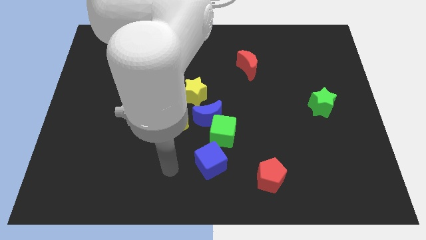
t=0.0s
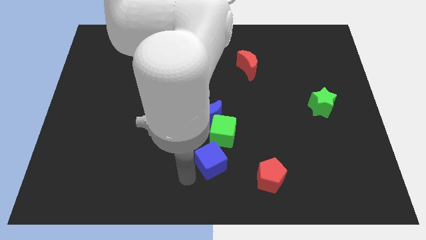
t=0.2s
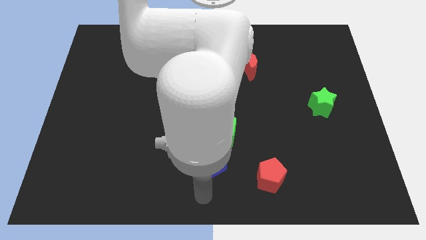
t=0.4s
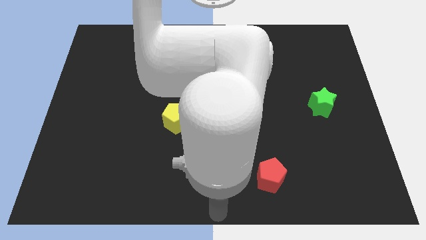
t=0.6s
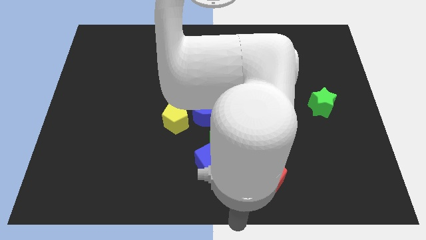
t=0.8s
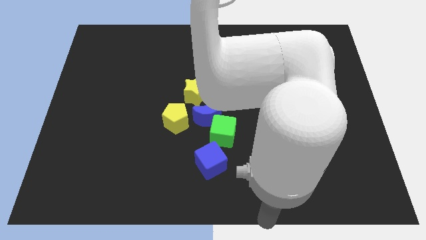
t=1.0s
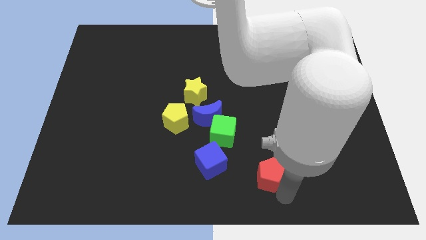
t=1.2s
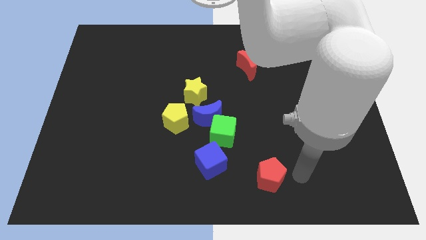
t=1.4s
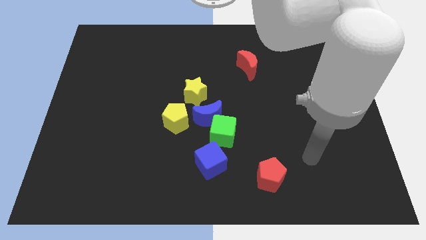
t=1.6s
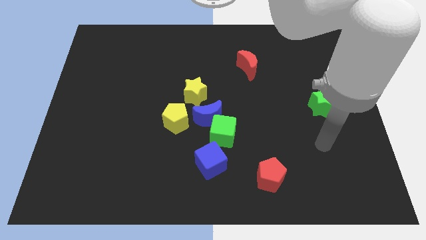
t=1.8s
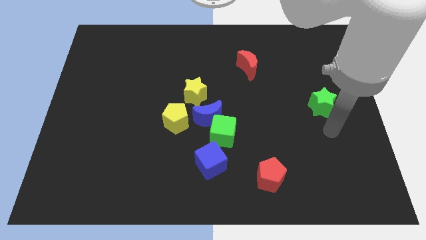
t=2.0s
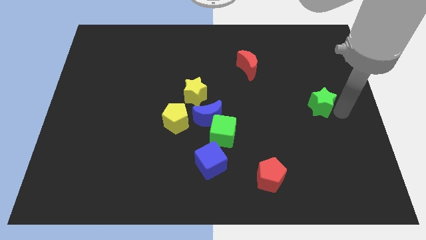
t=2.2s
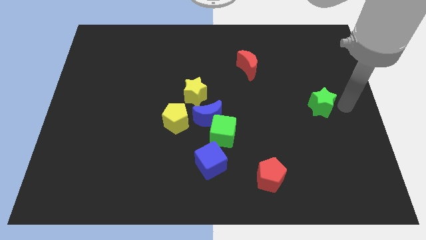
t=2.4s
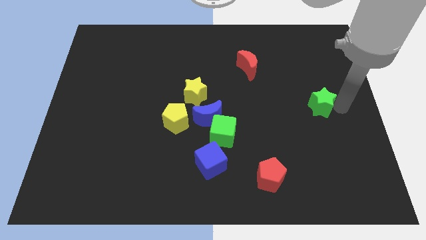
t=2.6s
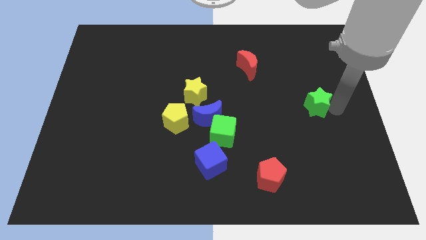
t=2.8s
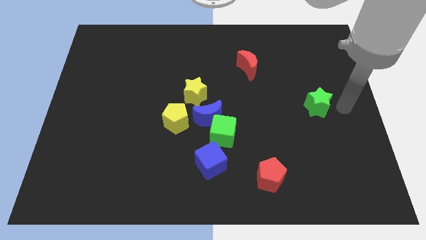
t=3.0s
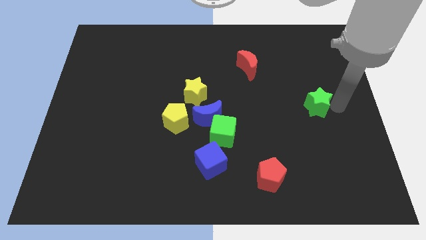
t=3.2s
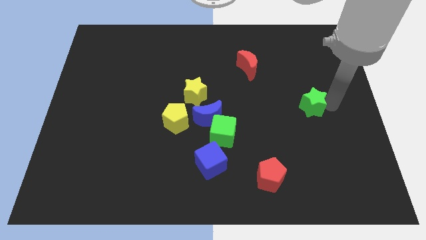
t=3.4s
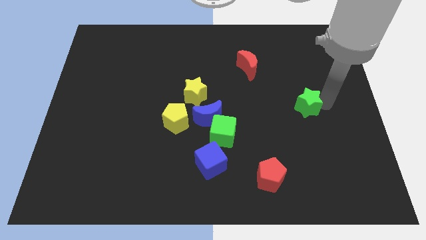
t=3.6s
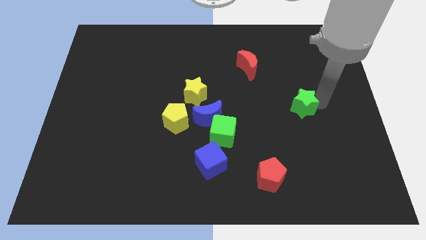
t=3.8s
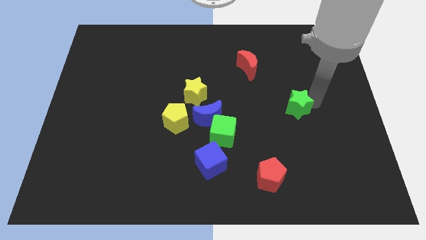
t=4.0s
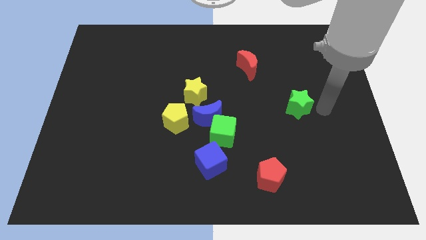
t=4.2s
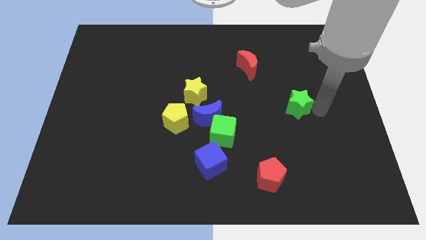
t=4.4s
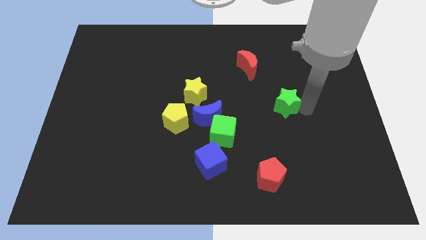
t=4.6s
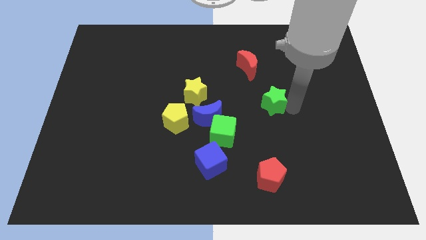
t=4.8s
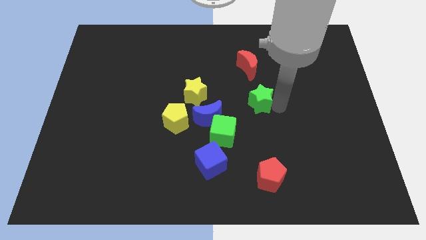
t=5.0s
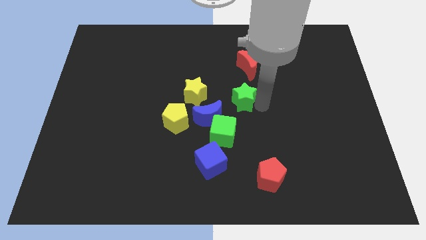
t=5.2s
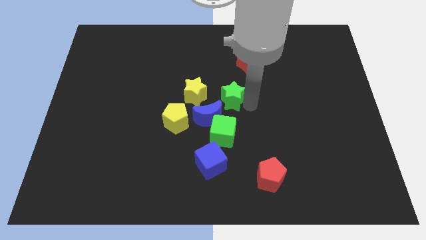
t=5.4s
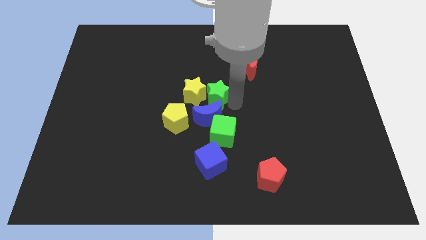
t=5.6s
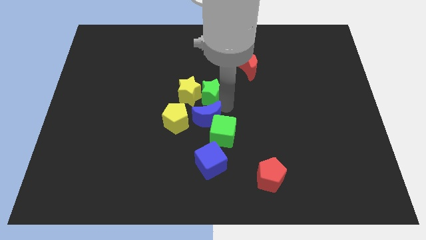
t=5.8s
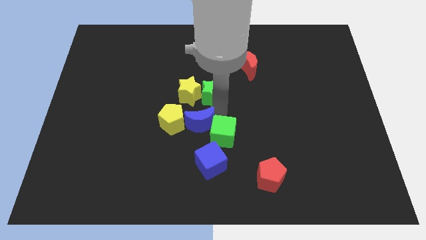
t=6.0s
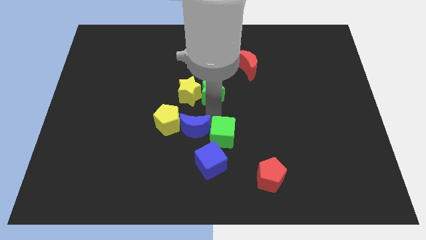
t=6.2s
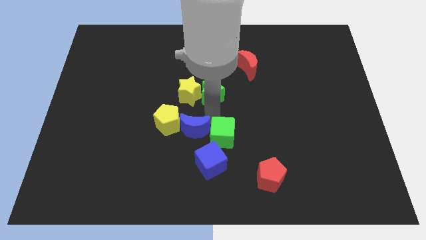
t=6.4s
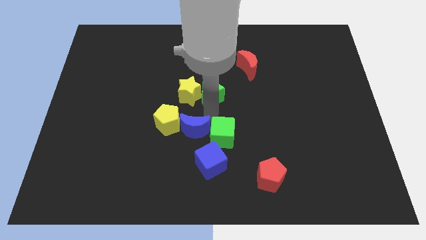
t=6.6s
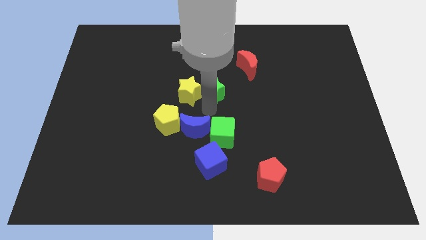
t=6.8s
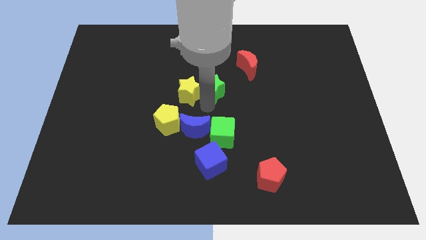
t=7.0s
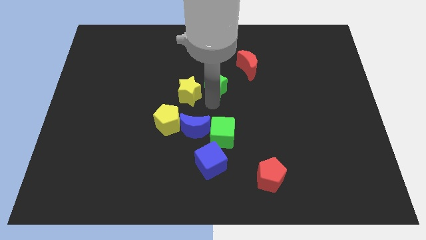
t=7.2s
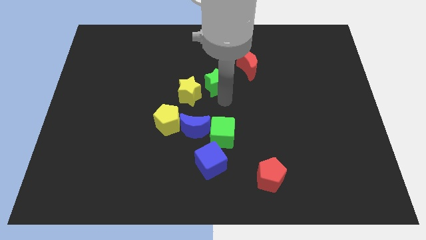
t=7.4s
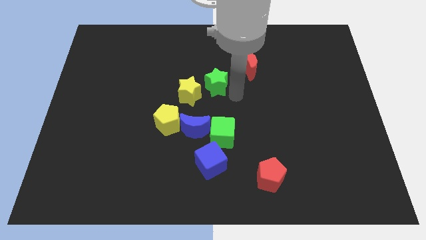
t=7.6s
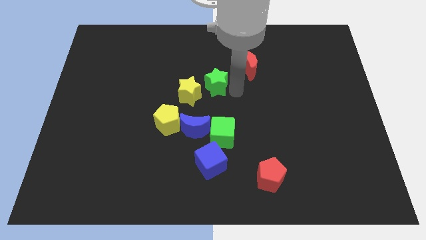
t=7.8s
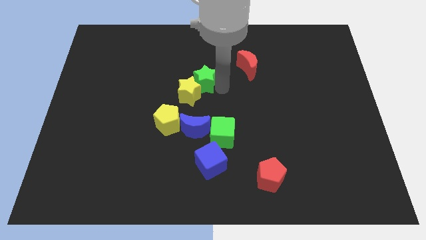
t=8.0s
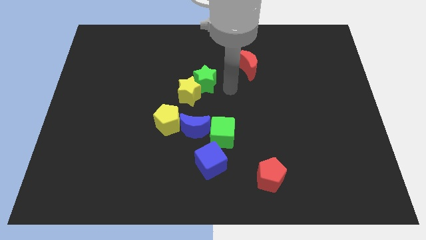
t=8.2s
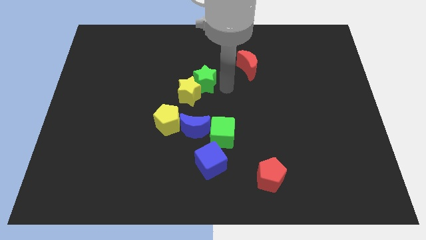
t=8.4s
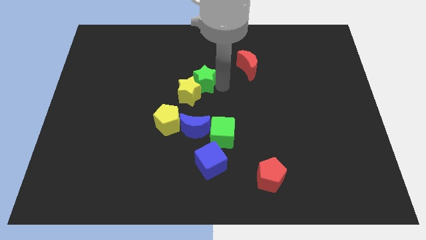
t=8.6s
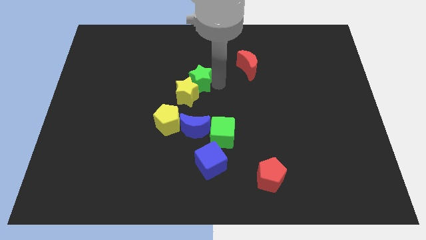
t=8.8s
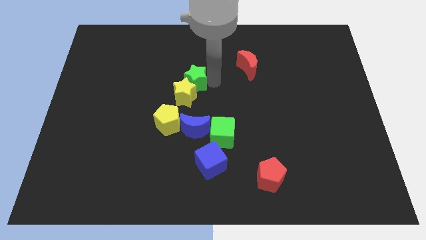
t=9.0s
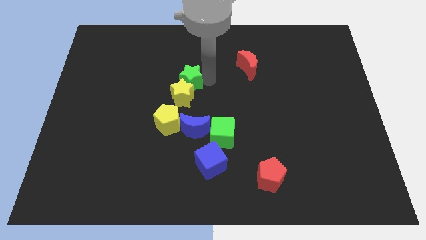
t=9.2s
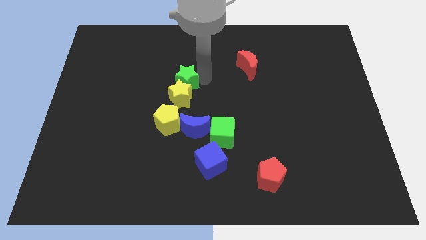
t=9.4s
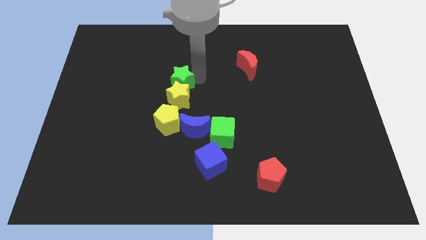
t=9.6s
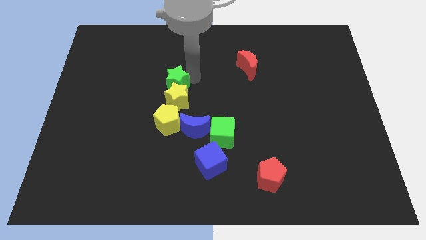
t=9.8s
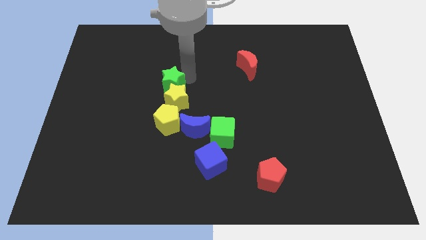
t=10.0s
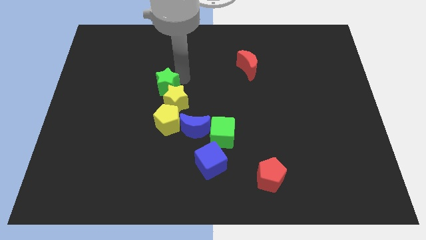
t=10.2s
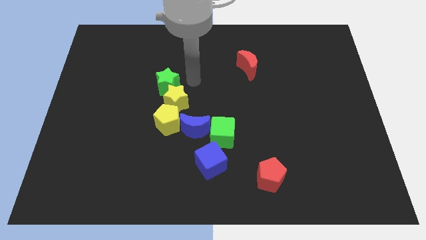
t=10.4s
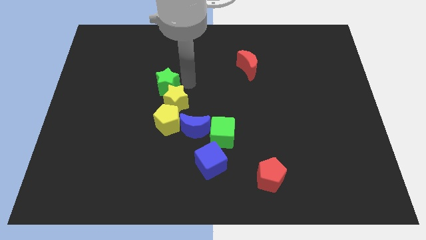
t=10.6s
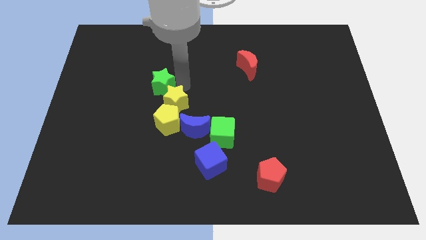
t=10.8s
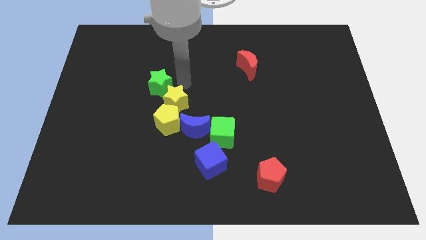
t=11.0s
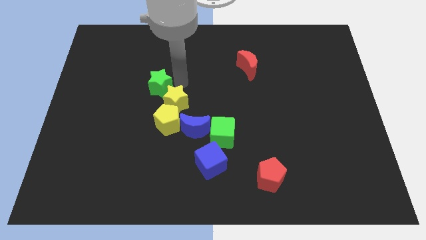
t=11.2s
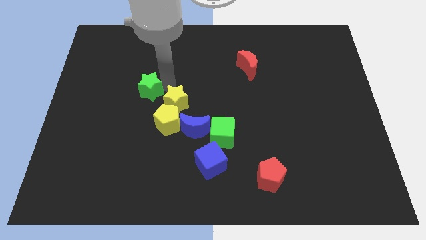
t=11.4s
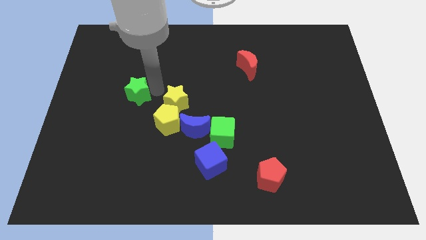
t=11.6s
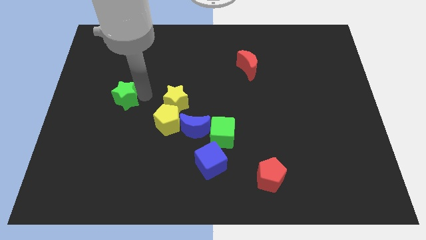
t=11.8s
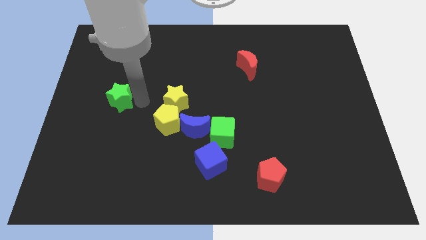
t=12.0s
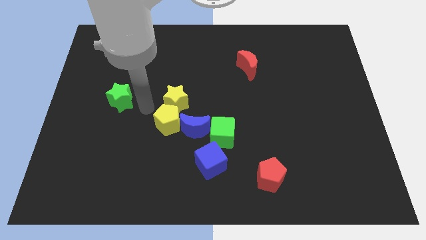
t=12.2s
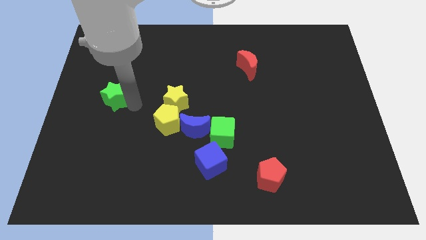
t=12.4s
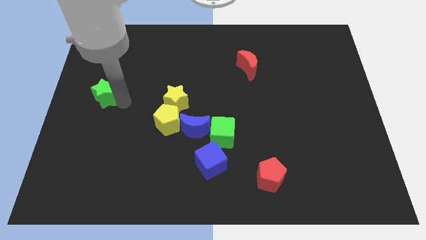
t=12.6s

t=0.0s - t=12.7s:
move the green star to the left side of the board
